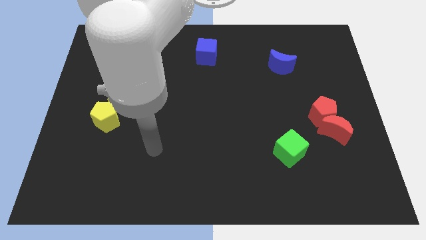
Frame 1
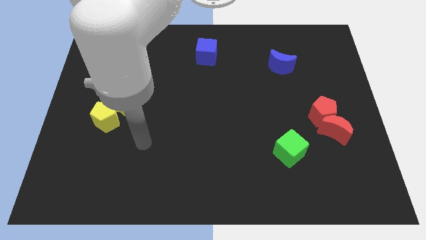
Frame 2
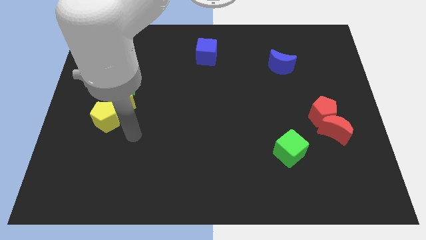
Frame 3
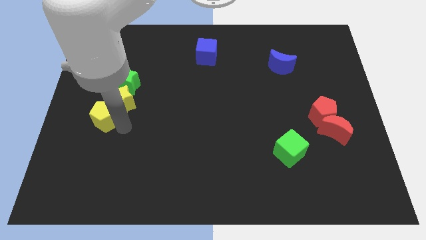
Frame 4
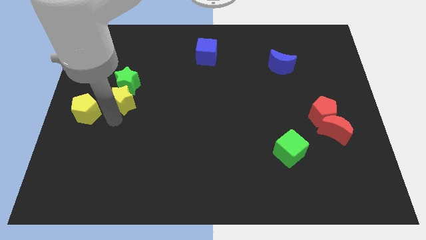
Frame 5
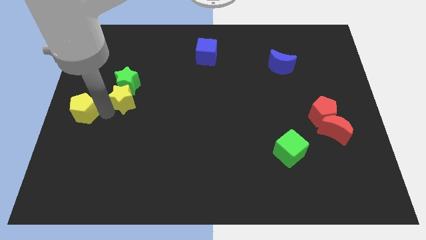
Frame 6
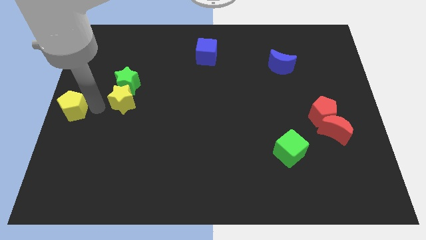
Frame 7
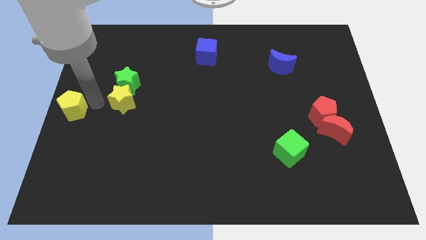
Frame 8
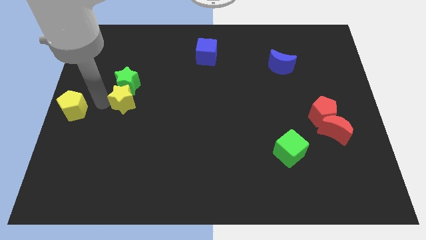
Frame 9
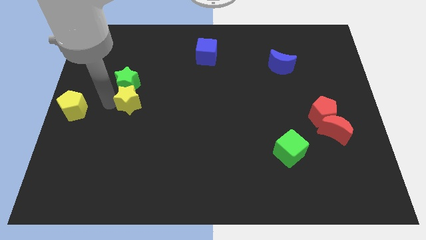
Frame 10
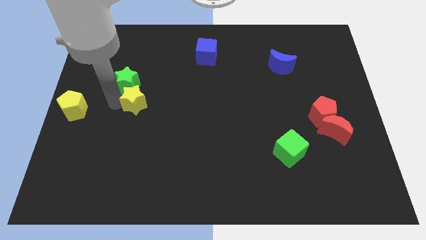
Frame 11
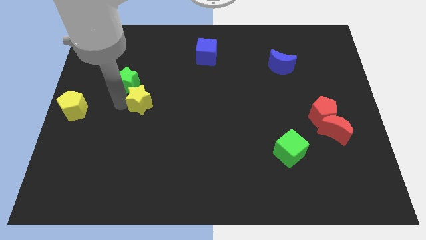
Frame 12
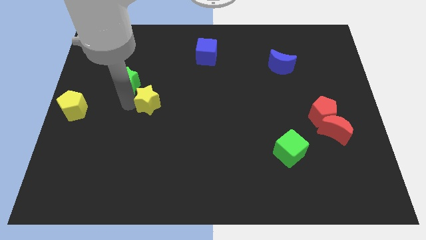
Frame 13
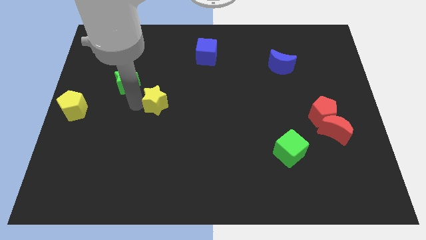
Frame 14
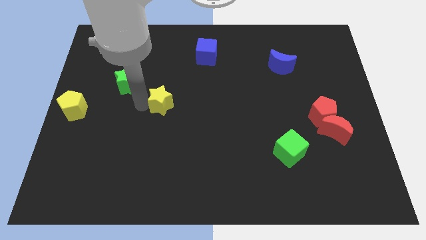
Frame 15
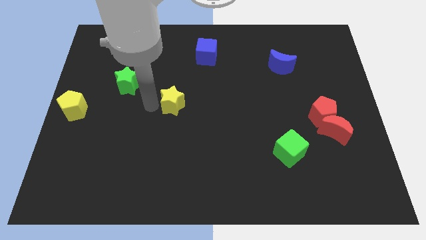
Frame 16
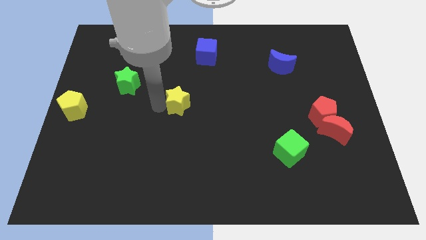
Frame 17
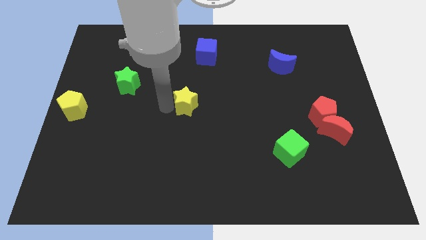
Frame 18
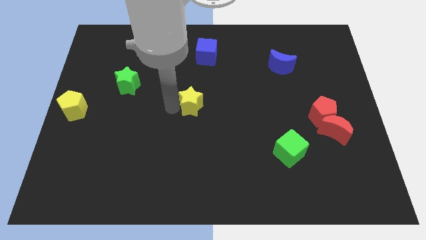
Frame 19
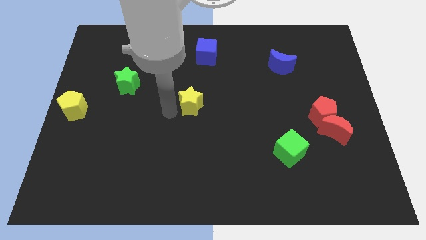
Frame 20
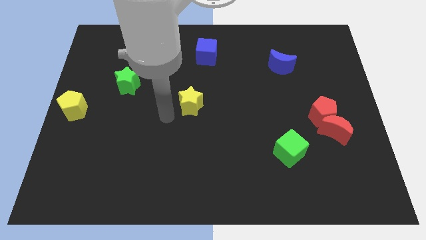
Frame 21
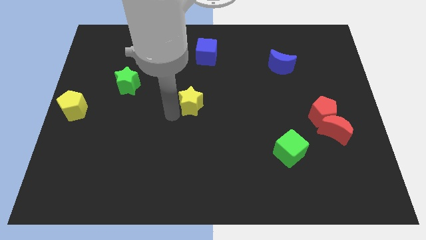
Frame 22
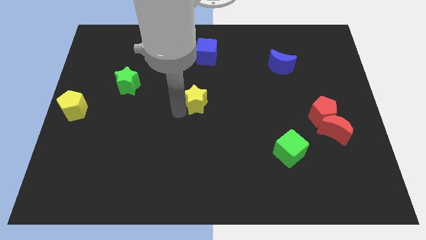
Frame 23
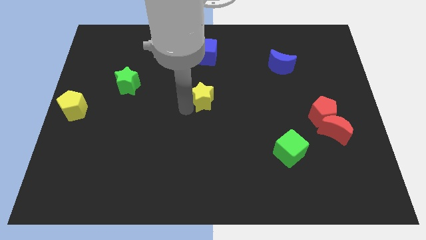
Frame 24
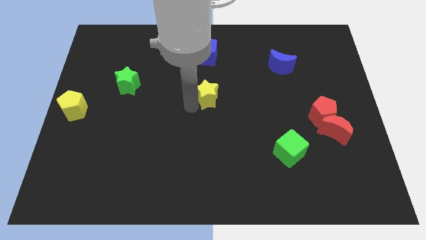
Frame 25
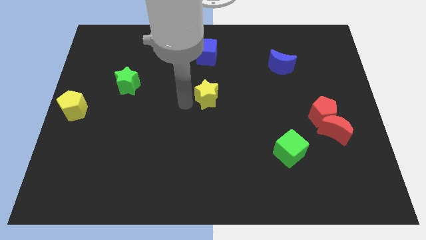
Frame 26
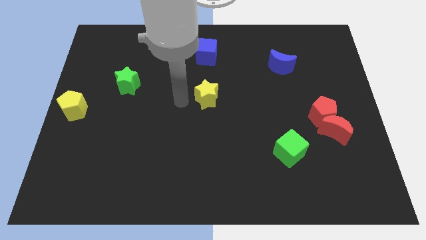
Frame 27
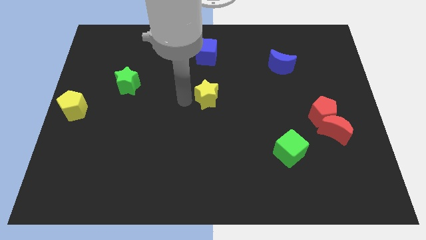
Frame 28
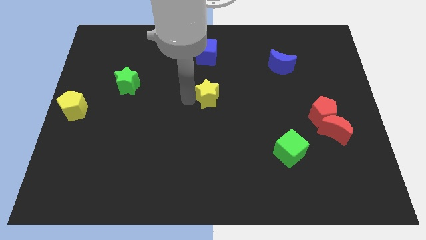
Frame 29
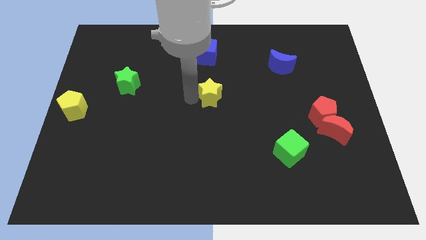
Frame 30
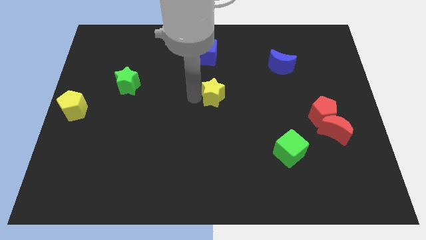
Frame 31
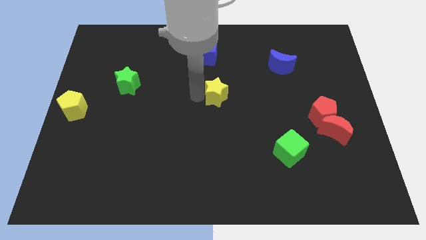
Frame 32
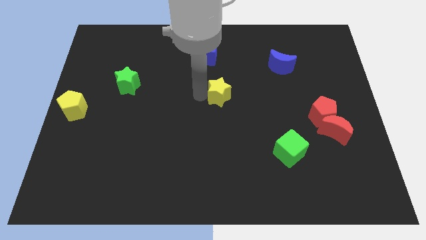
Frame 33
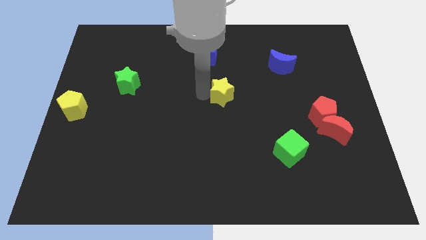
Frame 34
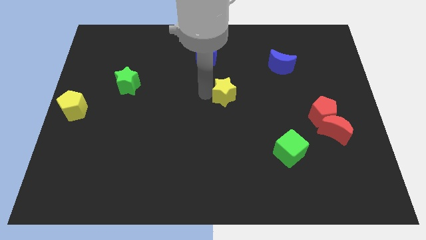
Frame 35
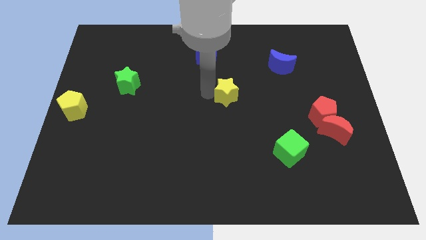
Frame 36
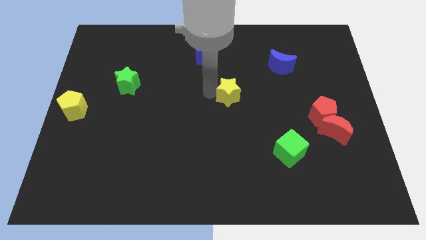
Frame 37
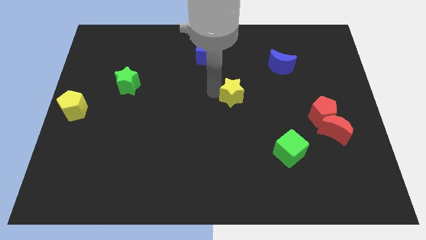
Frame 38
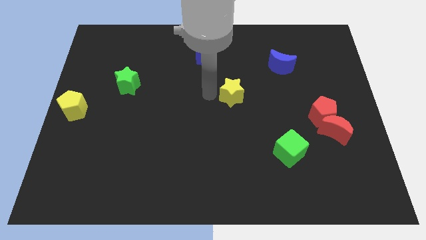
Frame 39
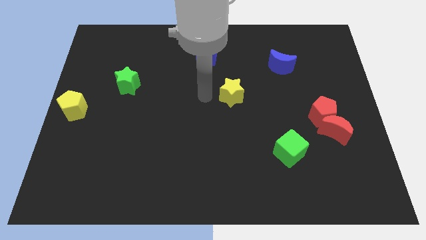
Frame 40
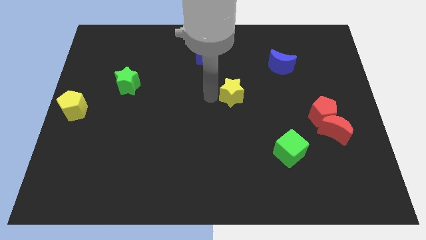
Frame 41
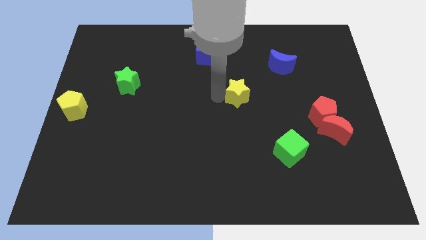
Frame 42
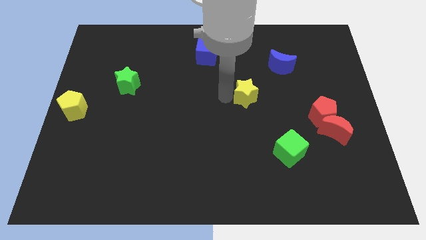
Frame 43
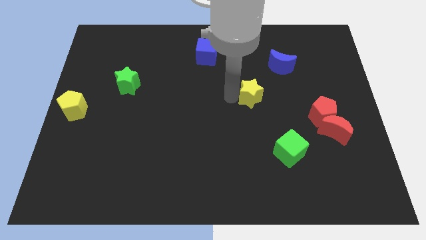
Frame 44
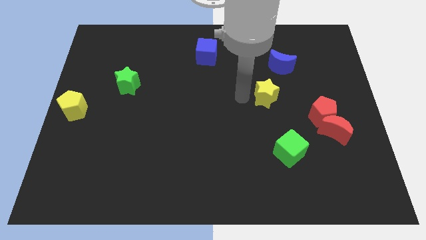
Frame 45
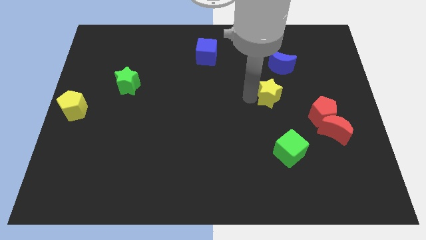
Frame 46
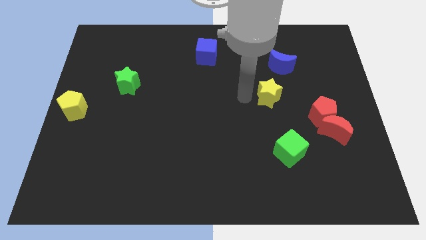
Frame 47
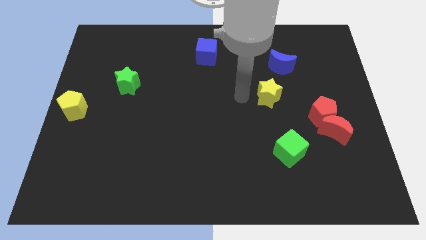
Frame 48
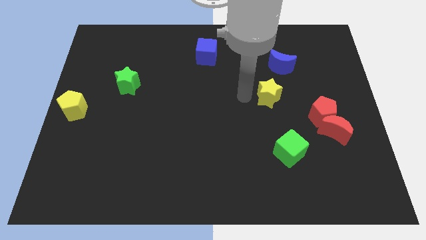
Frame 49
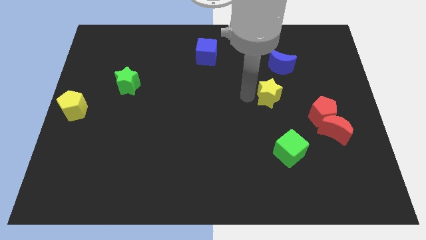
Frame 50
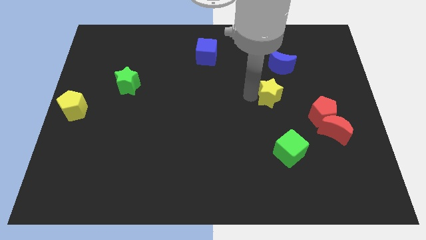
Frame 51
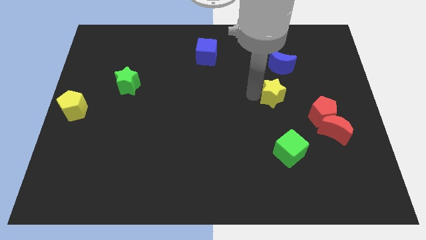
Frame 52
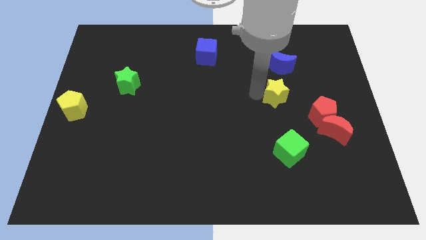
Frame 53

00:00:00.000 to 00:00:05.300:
slide the yellow star to the top left of the red pentagon

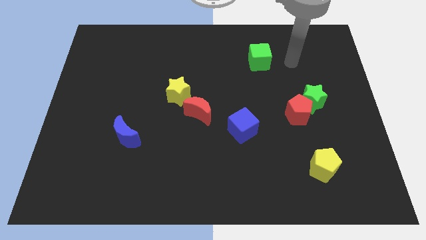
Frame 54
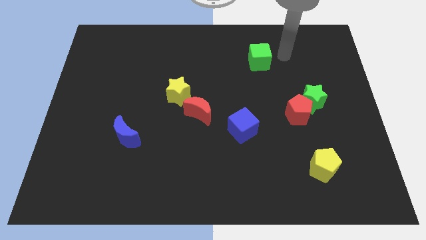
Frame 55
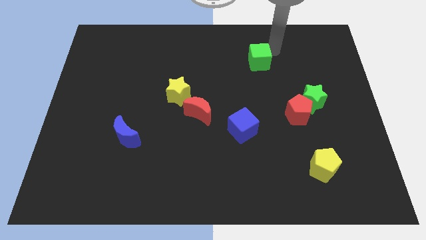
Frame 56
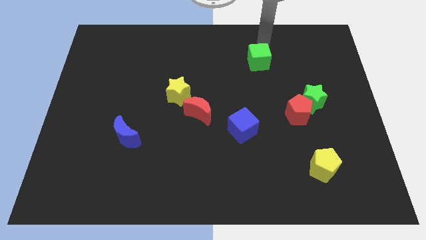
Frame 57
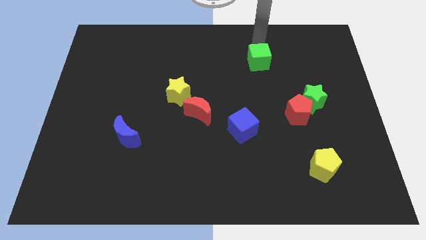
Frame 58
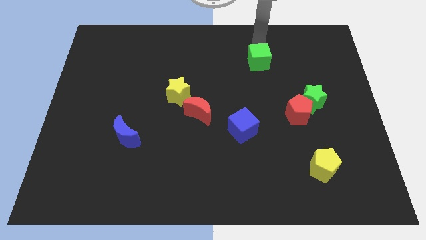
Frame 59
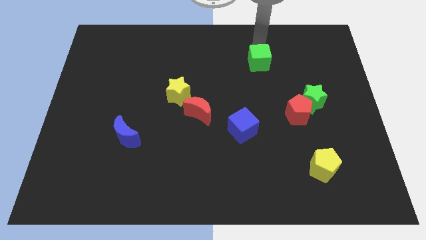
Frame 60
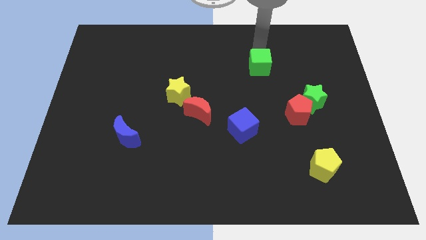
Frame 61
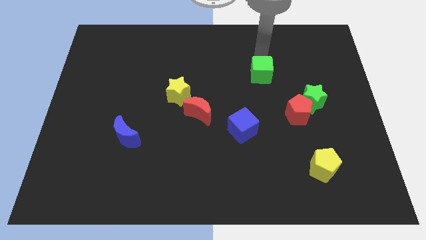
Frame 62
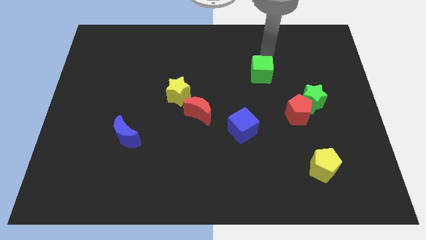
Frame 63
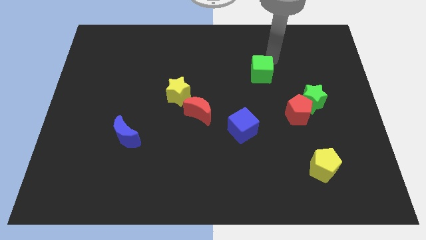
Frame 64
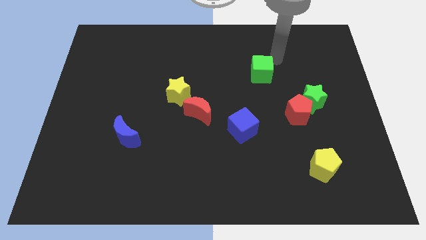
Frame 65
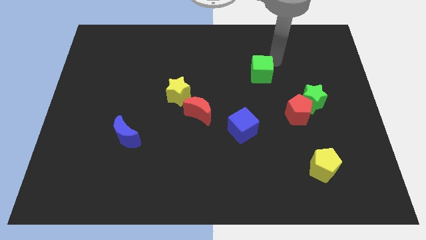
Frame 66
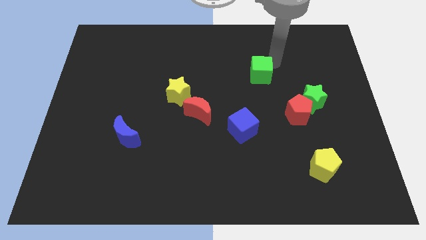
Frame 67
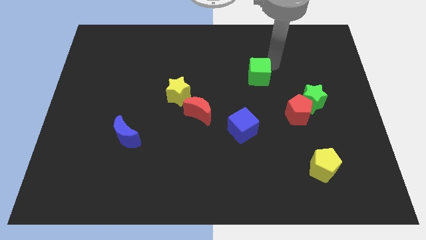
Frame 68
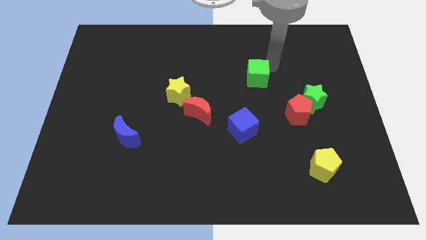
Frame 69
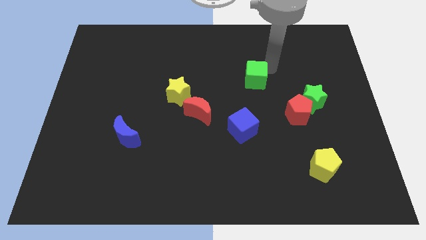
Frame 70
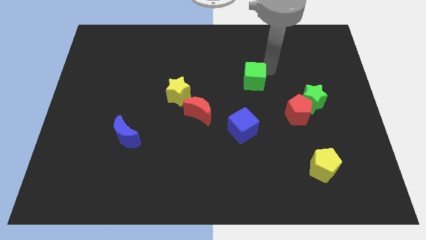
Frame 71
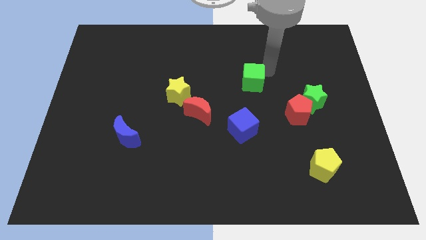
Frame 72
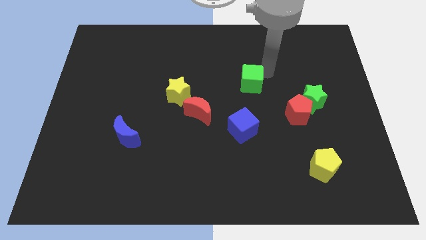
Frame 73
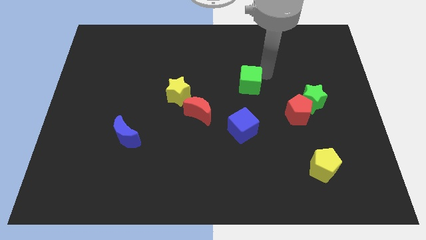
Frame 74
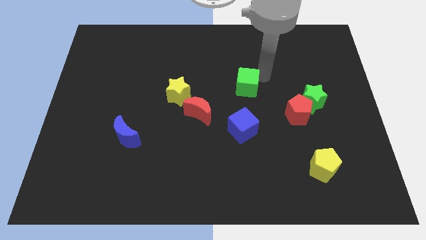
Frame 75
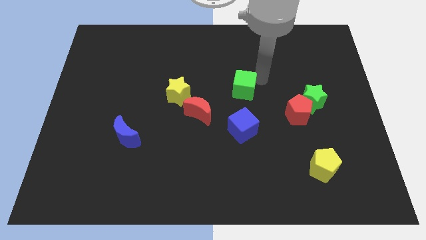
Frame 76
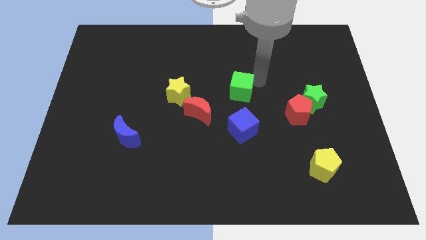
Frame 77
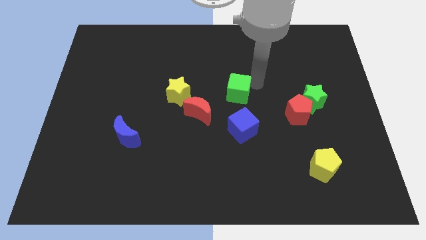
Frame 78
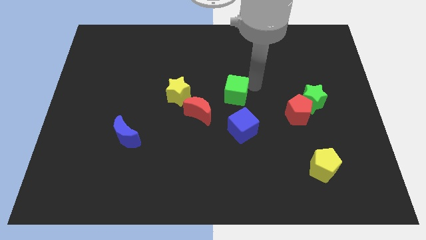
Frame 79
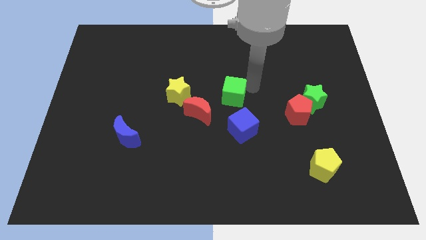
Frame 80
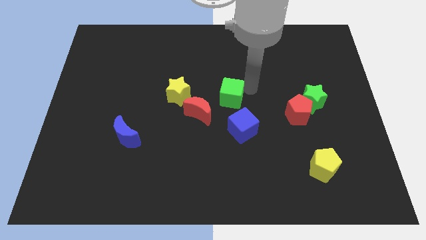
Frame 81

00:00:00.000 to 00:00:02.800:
push the green cube to the top left of the blue cube
